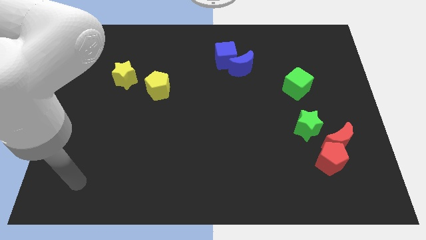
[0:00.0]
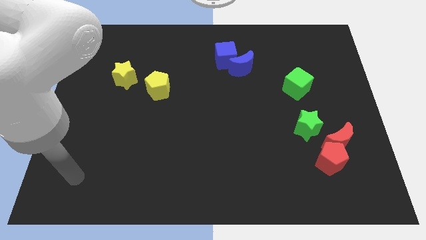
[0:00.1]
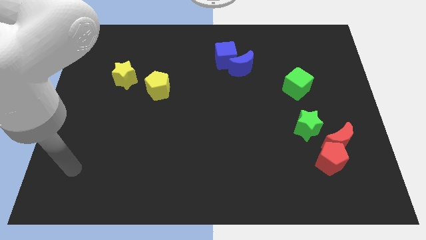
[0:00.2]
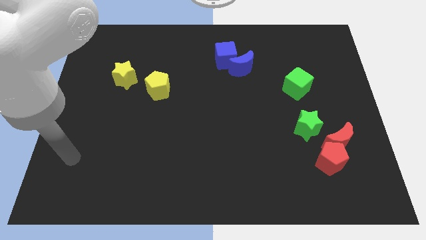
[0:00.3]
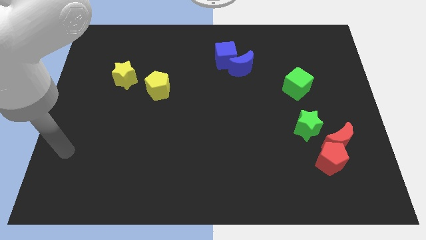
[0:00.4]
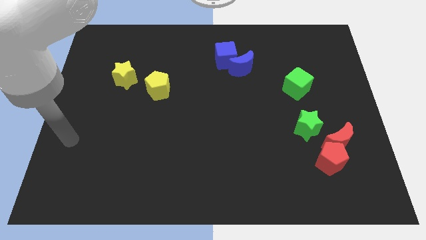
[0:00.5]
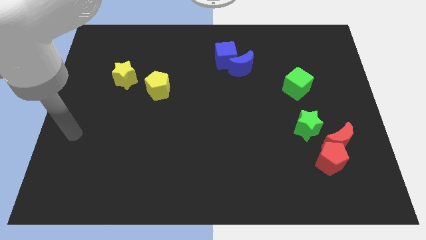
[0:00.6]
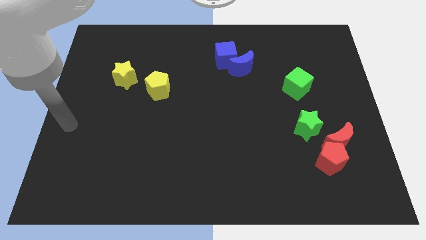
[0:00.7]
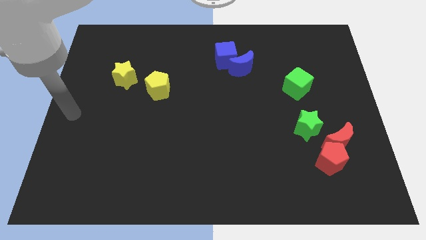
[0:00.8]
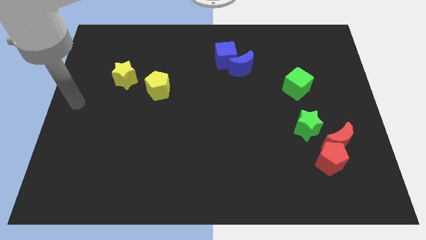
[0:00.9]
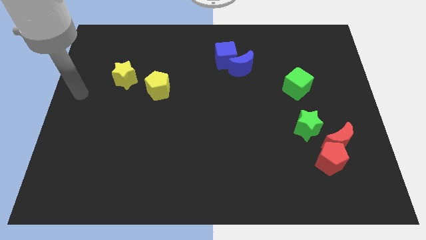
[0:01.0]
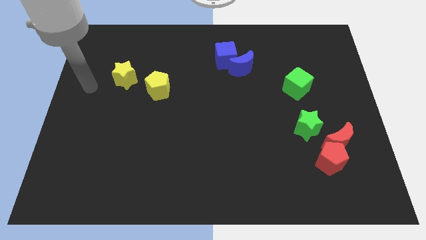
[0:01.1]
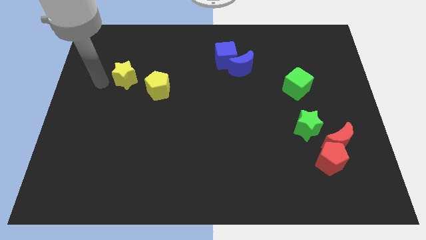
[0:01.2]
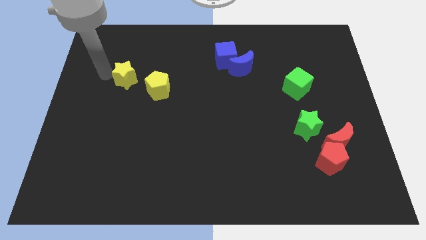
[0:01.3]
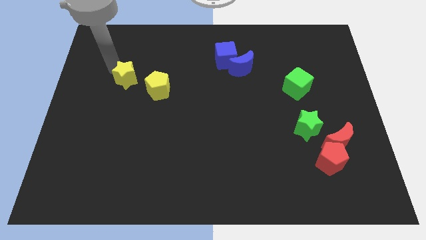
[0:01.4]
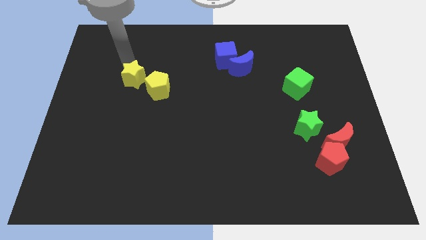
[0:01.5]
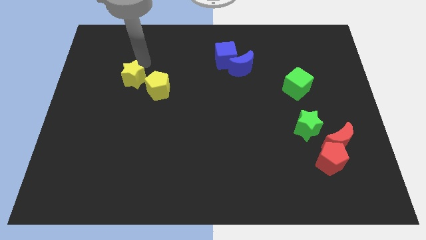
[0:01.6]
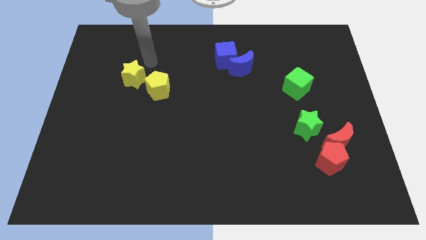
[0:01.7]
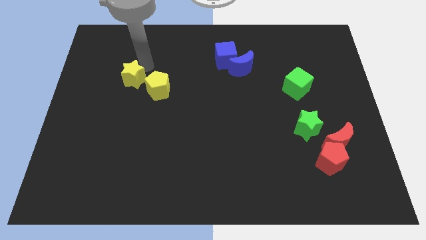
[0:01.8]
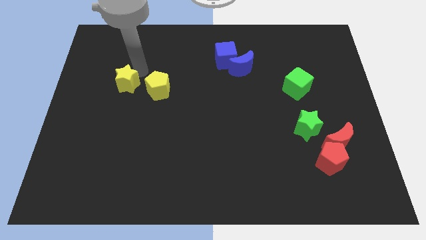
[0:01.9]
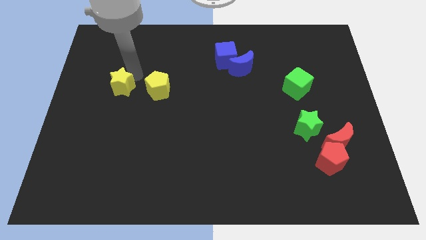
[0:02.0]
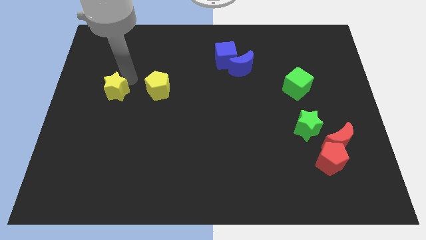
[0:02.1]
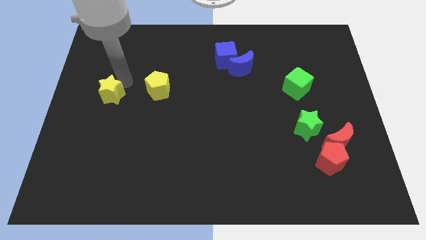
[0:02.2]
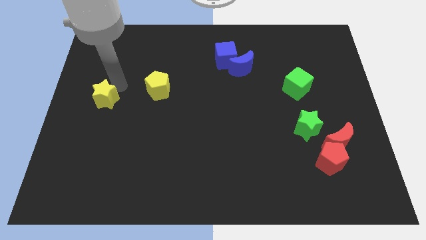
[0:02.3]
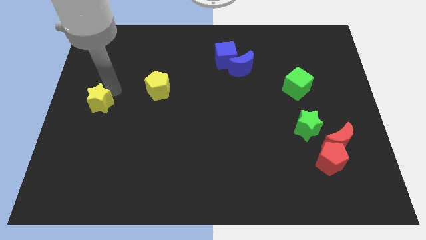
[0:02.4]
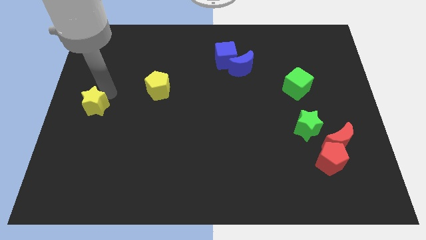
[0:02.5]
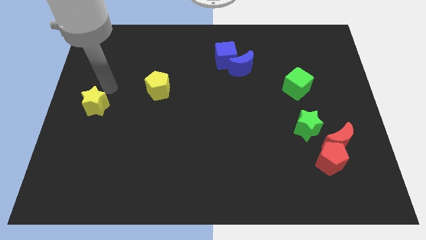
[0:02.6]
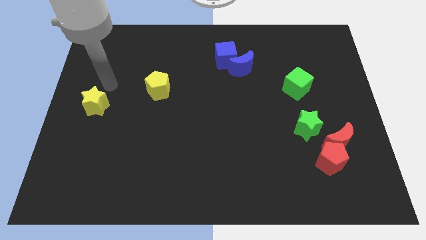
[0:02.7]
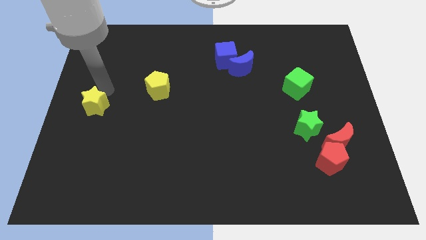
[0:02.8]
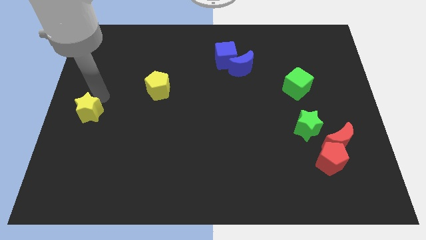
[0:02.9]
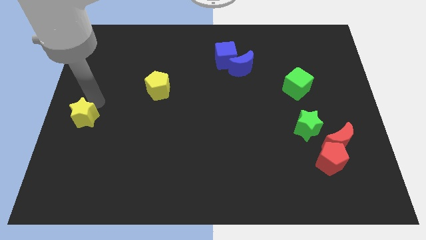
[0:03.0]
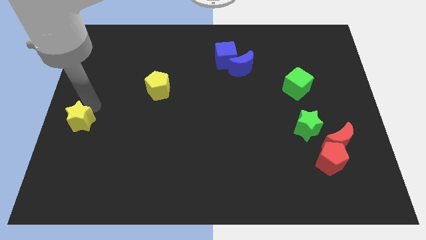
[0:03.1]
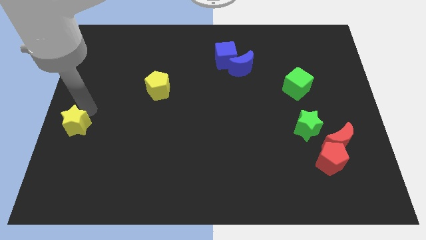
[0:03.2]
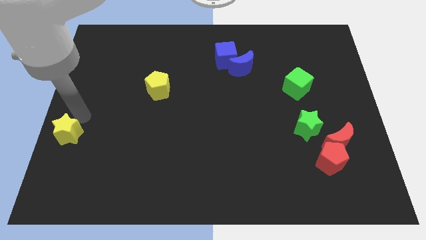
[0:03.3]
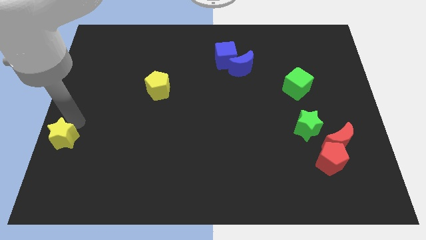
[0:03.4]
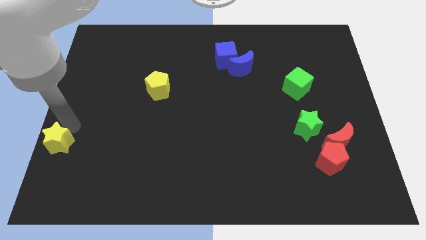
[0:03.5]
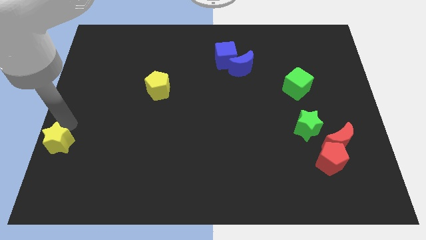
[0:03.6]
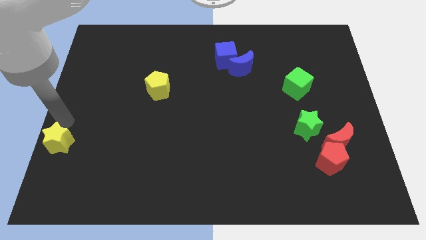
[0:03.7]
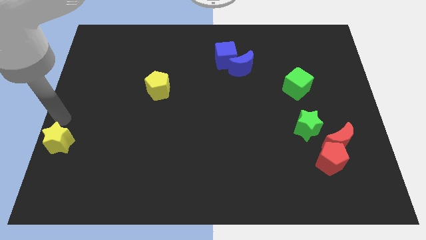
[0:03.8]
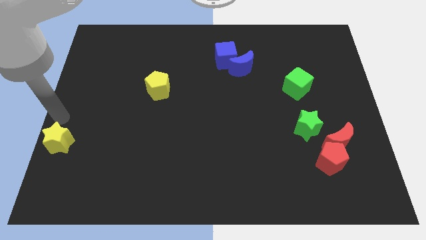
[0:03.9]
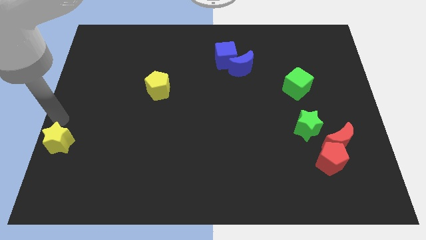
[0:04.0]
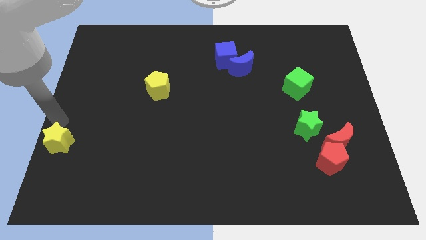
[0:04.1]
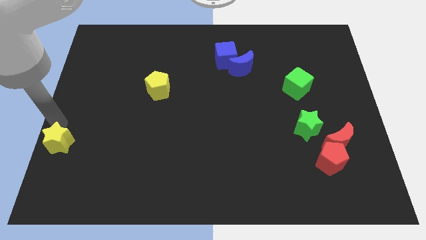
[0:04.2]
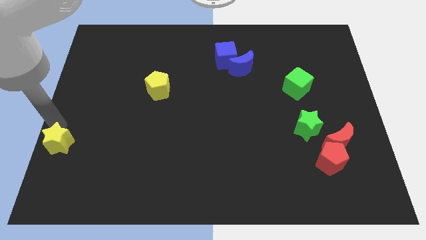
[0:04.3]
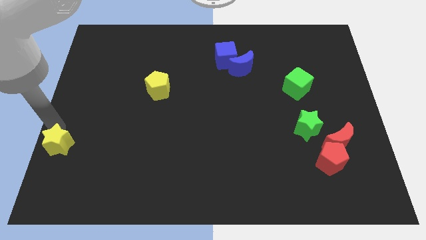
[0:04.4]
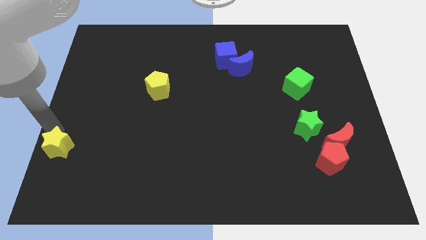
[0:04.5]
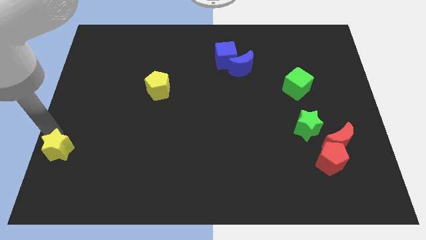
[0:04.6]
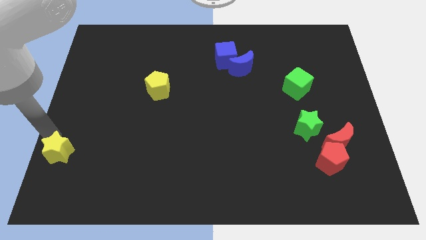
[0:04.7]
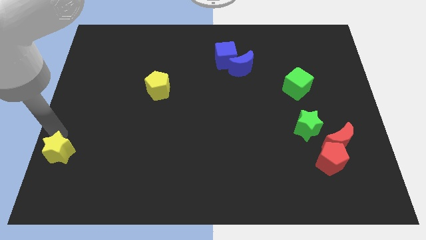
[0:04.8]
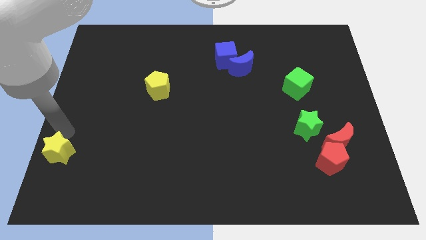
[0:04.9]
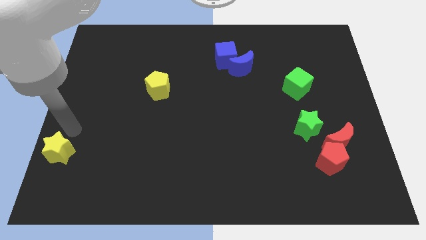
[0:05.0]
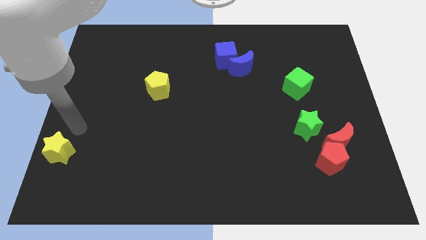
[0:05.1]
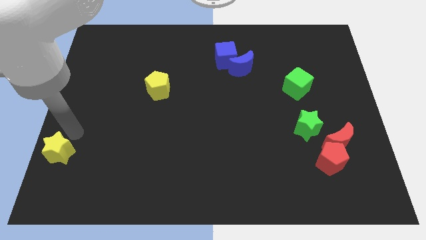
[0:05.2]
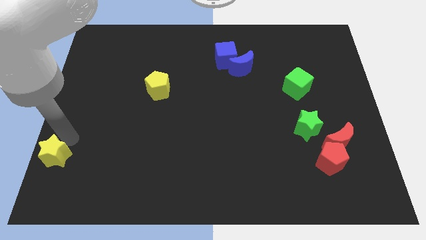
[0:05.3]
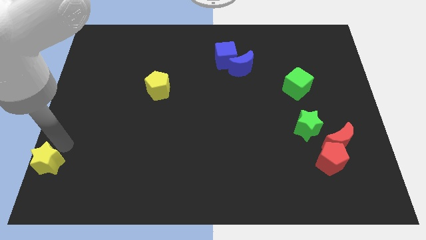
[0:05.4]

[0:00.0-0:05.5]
slide the yellow star to the bottom left corner

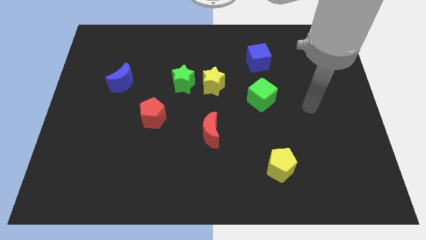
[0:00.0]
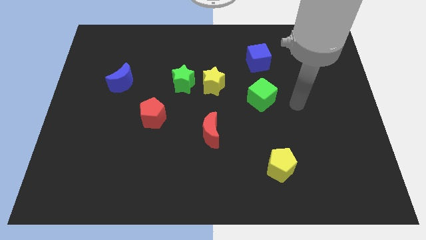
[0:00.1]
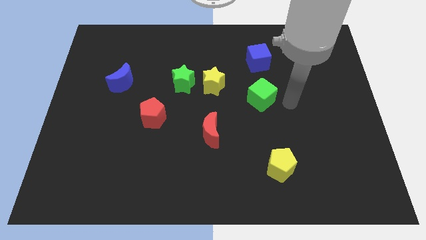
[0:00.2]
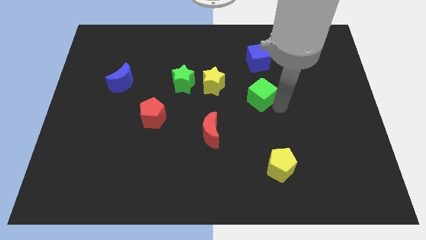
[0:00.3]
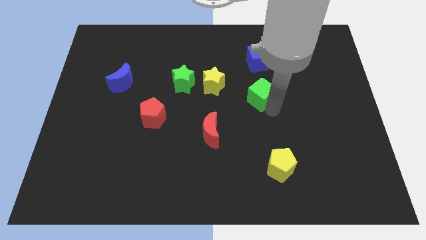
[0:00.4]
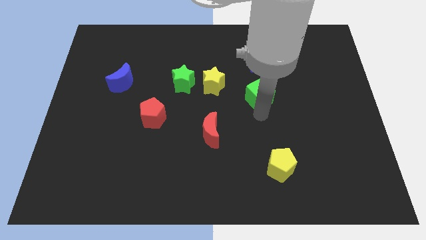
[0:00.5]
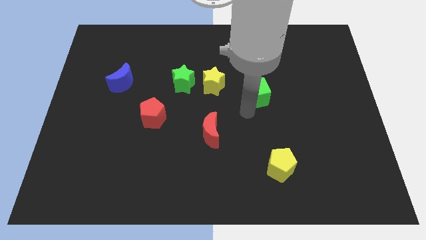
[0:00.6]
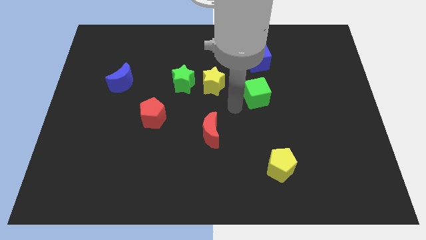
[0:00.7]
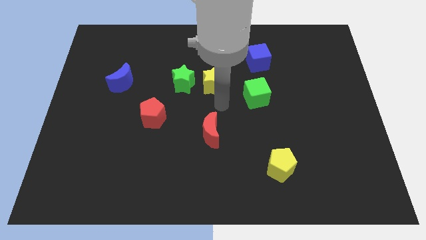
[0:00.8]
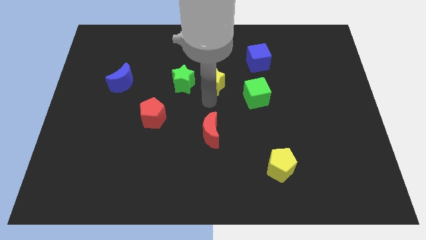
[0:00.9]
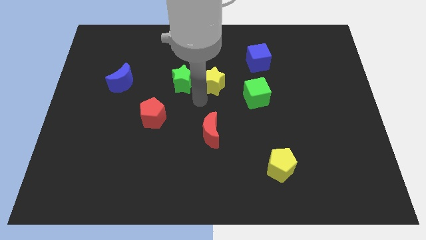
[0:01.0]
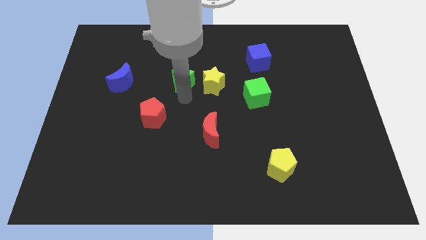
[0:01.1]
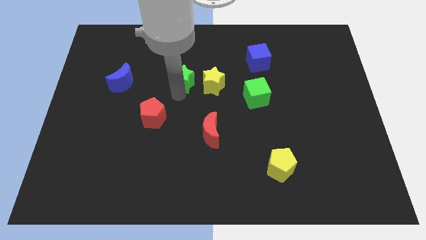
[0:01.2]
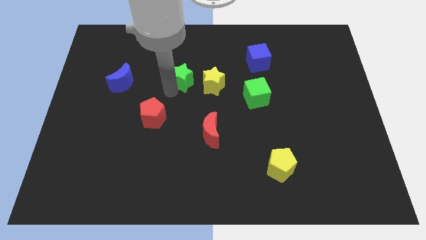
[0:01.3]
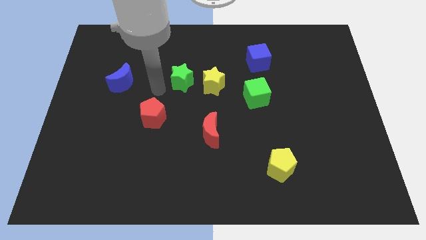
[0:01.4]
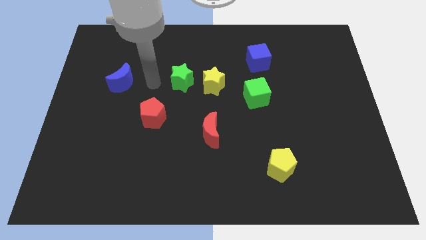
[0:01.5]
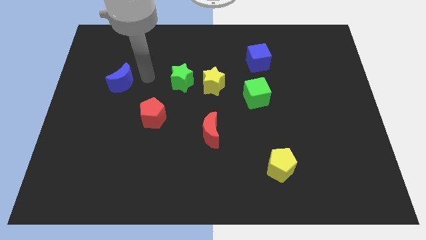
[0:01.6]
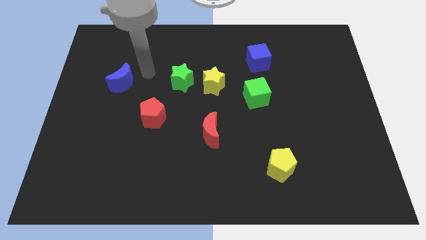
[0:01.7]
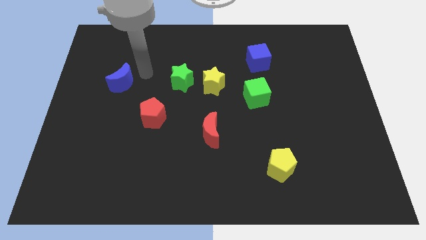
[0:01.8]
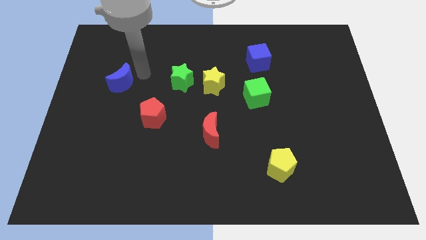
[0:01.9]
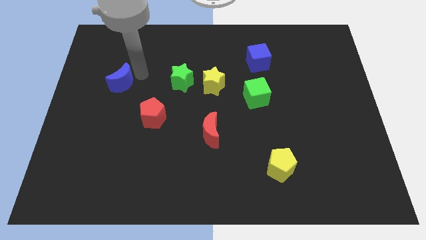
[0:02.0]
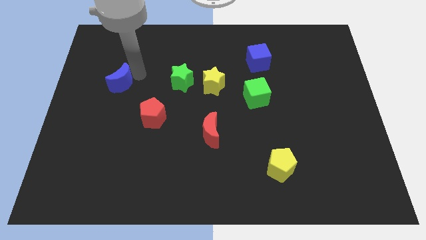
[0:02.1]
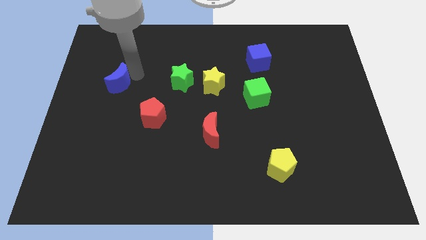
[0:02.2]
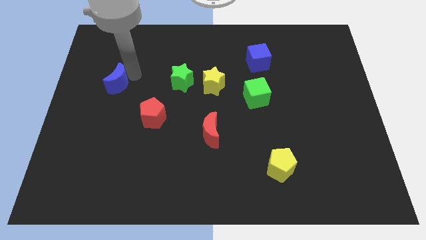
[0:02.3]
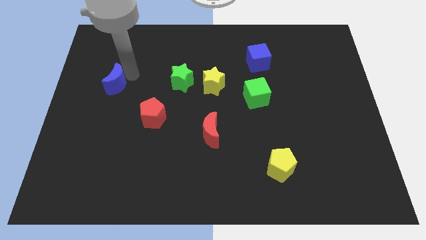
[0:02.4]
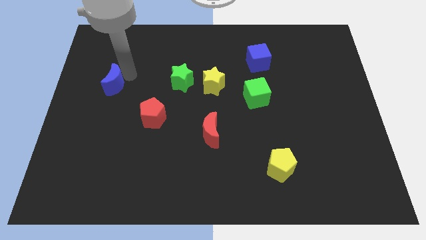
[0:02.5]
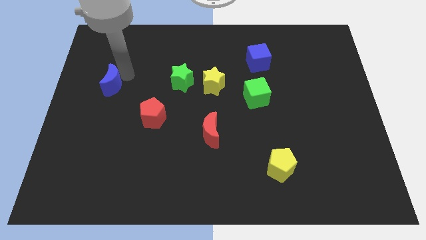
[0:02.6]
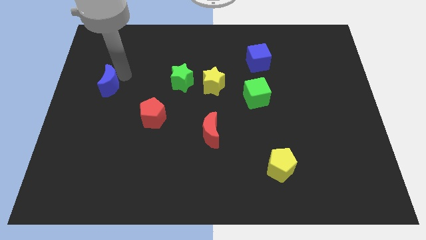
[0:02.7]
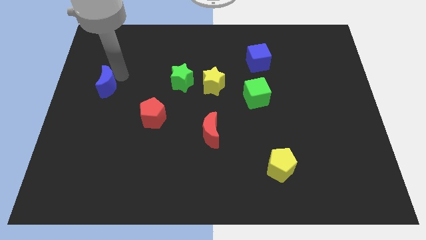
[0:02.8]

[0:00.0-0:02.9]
put the blue moon to the center left
